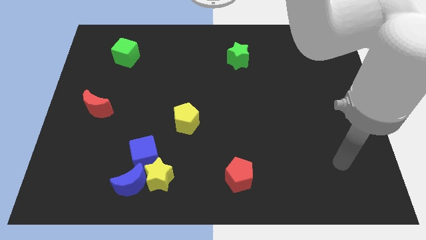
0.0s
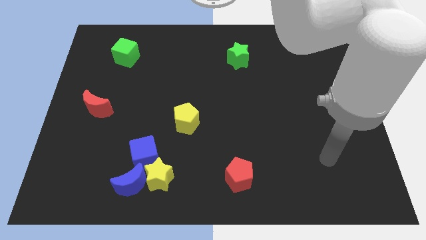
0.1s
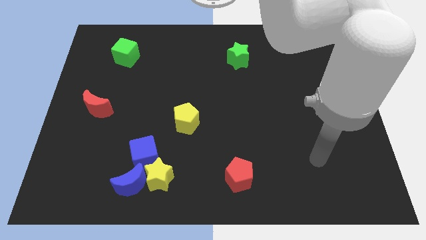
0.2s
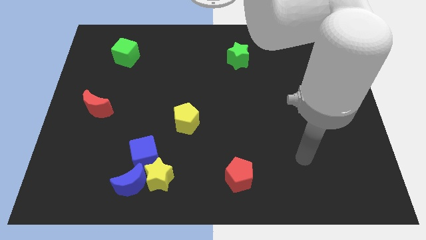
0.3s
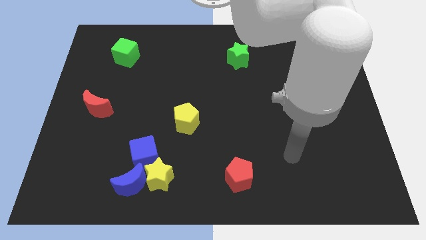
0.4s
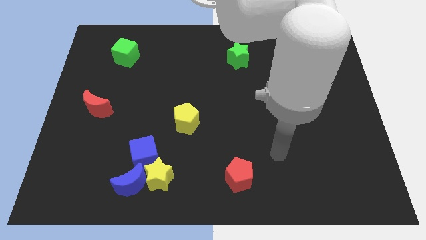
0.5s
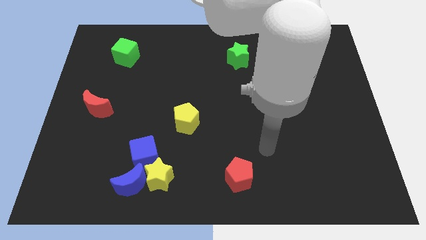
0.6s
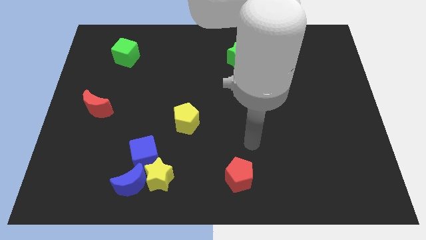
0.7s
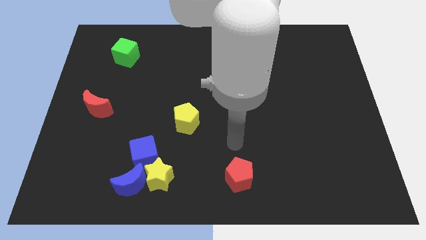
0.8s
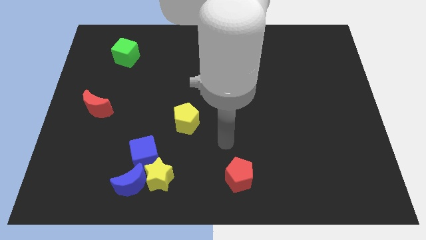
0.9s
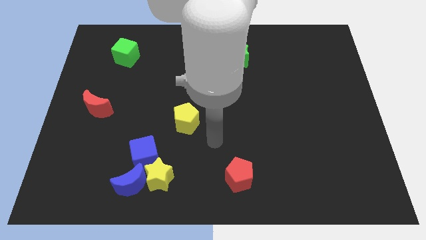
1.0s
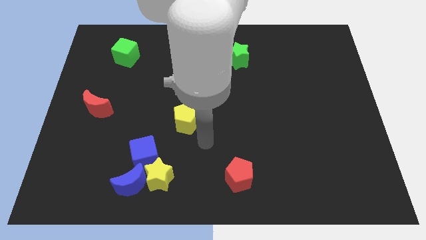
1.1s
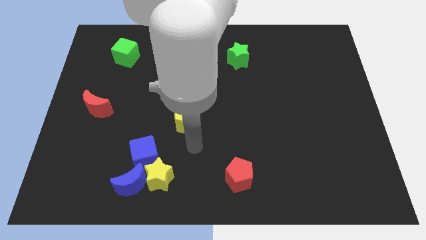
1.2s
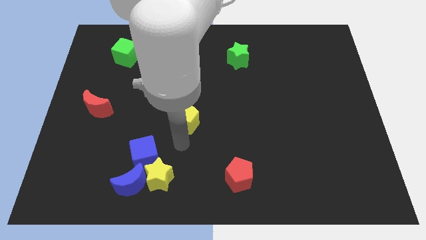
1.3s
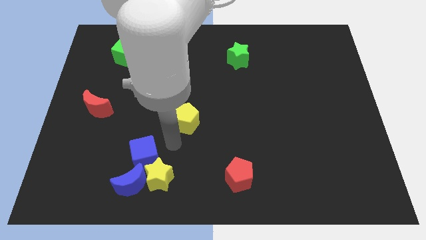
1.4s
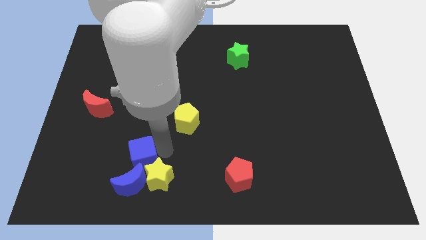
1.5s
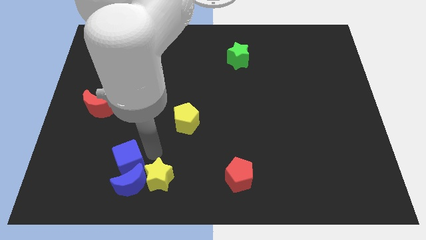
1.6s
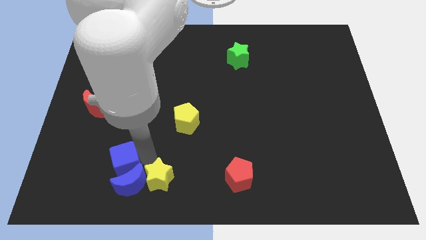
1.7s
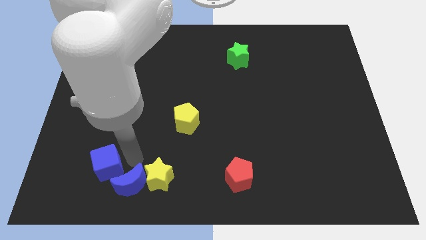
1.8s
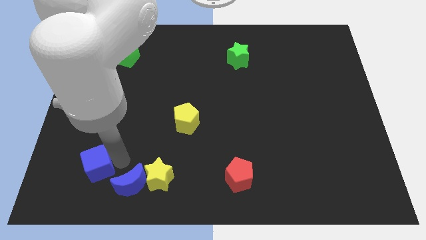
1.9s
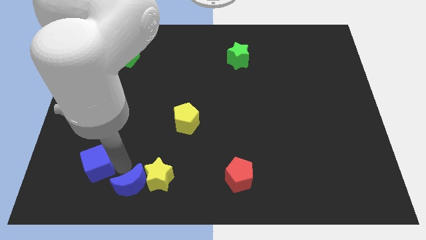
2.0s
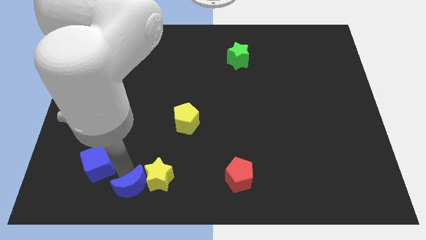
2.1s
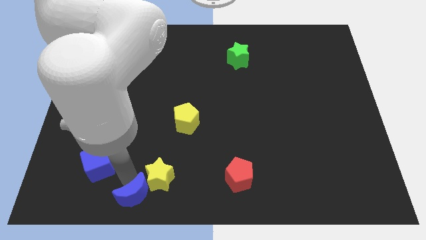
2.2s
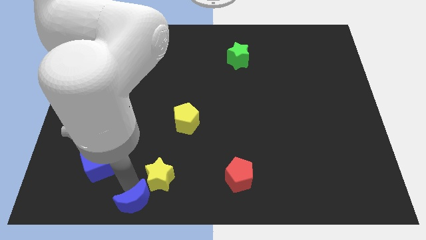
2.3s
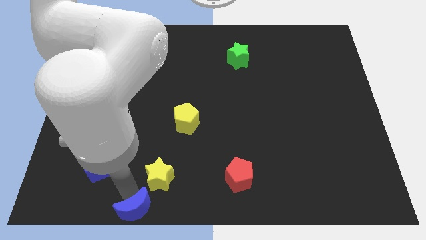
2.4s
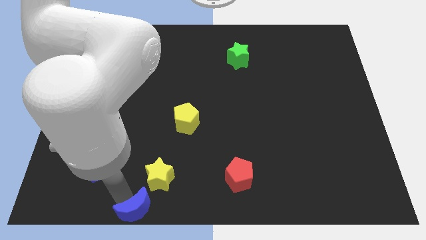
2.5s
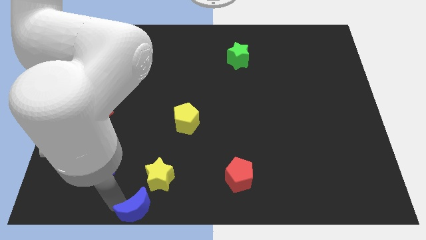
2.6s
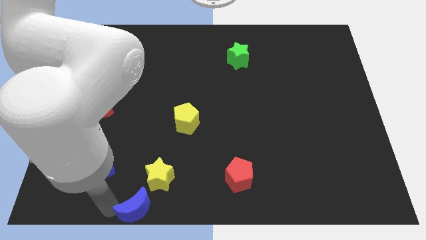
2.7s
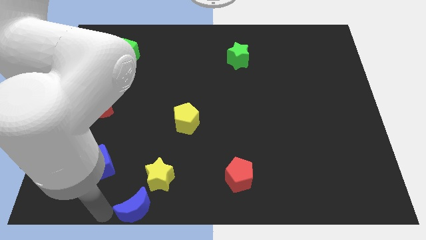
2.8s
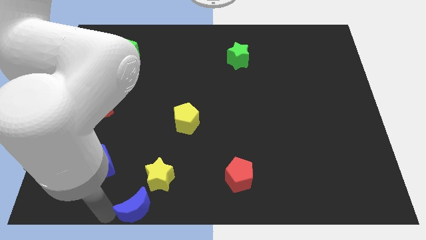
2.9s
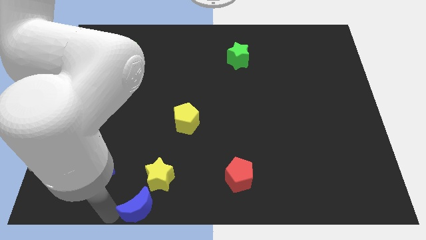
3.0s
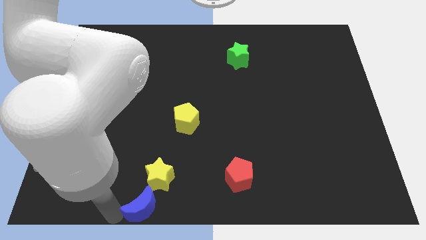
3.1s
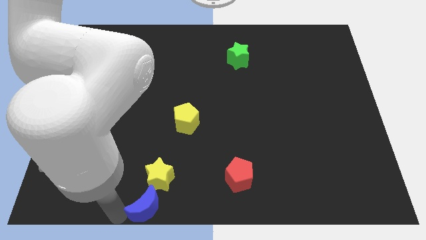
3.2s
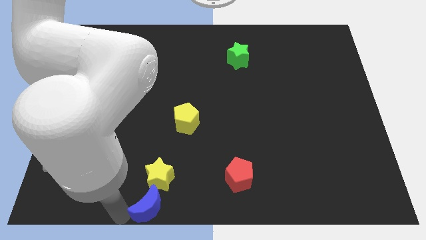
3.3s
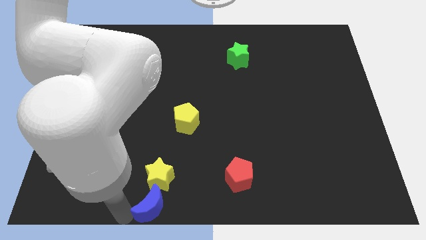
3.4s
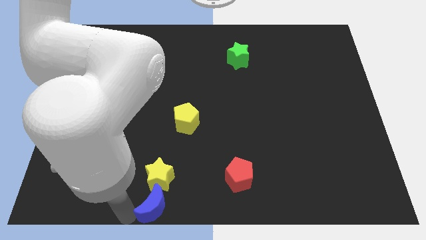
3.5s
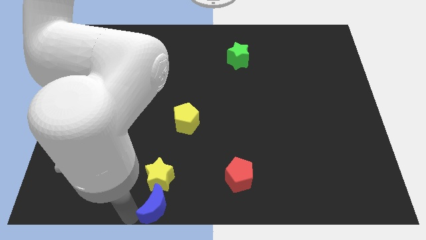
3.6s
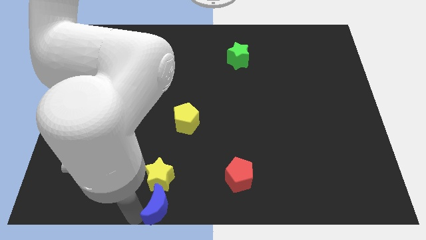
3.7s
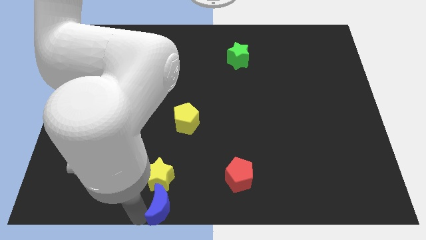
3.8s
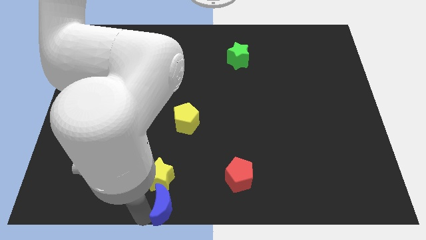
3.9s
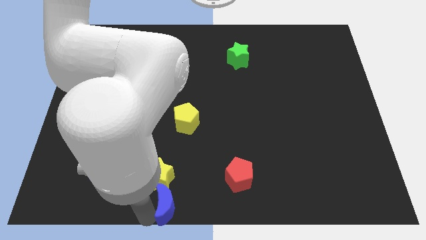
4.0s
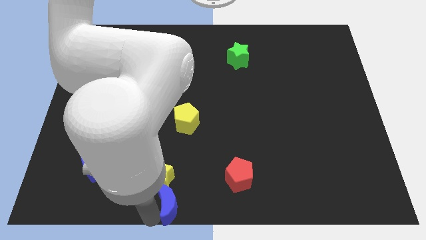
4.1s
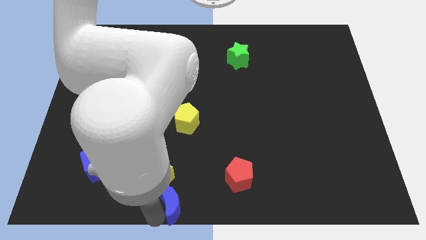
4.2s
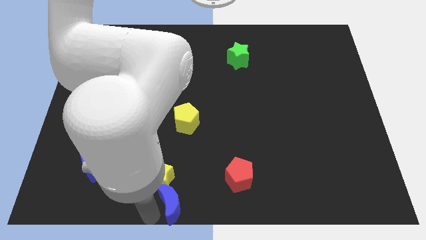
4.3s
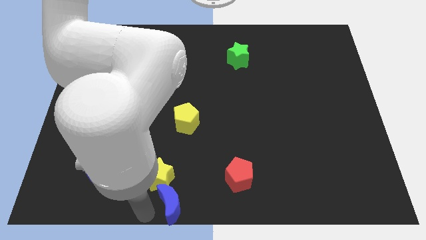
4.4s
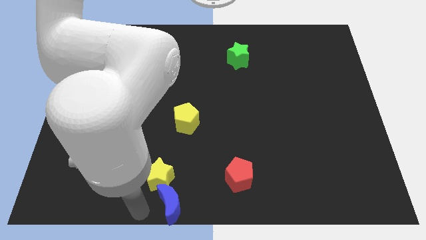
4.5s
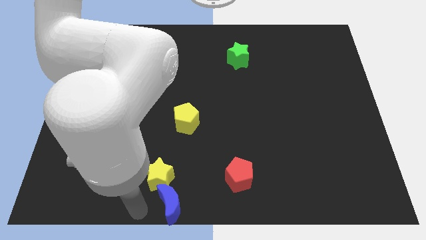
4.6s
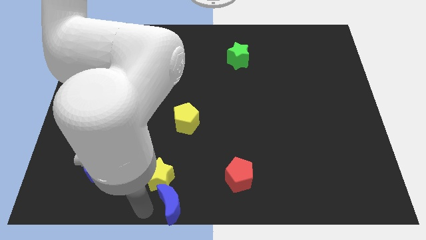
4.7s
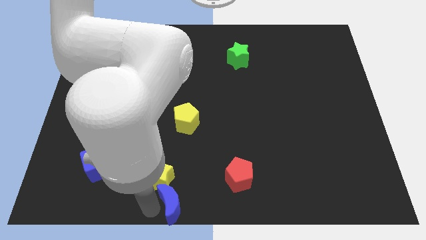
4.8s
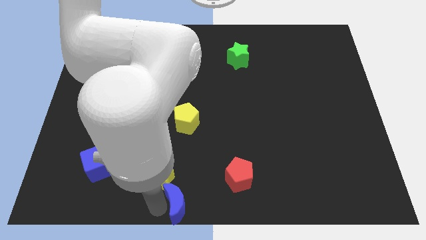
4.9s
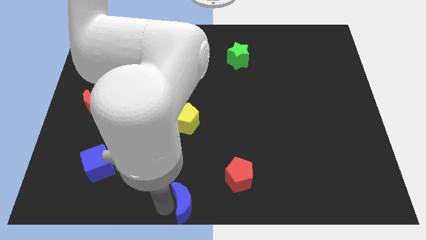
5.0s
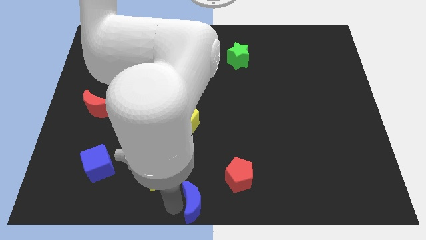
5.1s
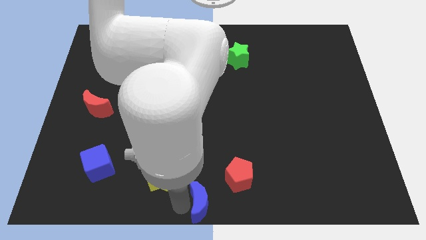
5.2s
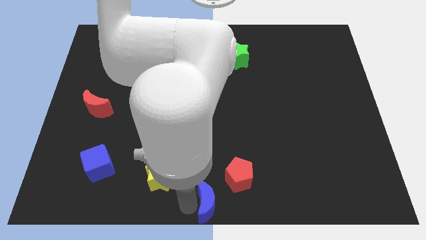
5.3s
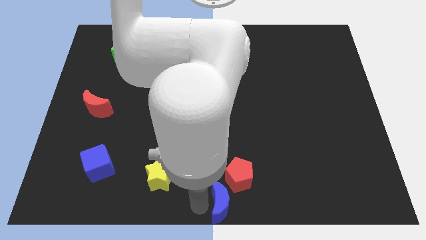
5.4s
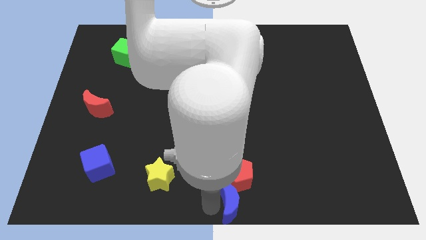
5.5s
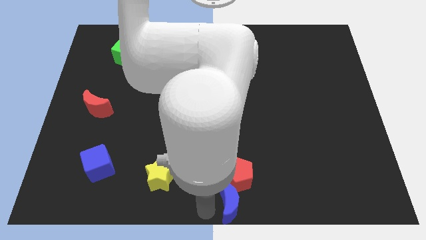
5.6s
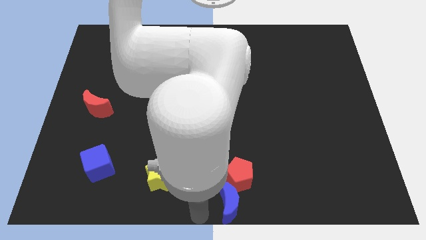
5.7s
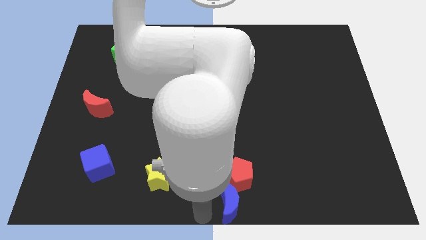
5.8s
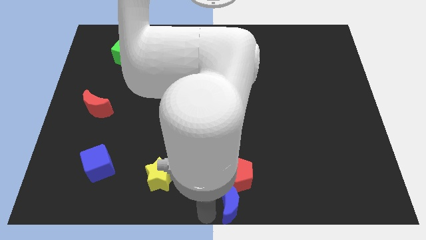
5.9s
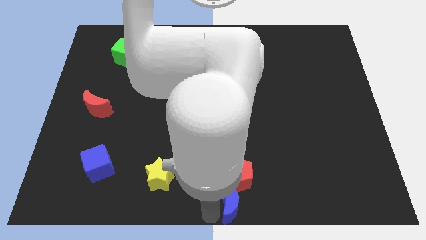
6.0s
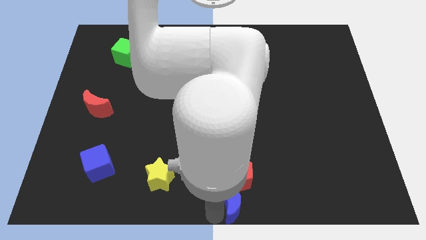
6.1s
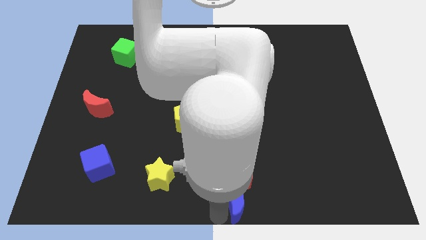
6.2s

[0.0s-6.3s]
slide the blue moon to the right

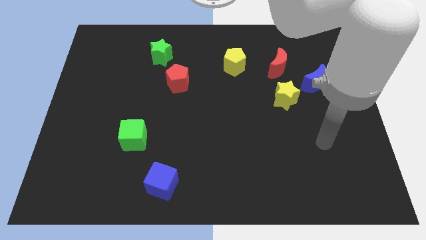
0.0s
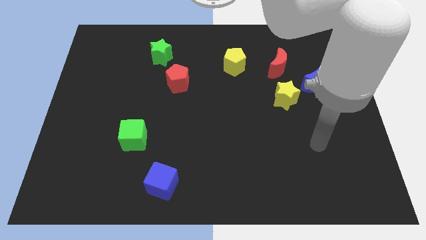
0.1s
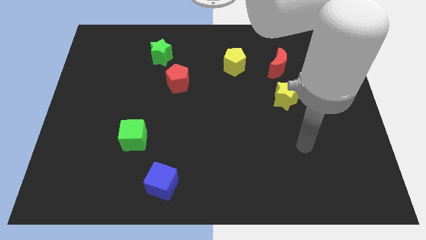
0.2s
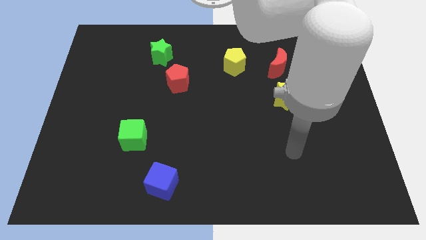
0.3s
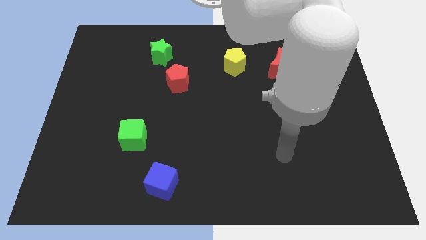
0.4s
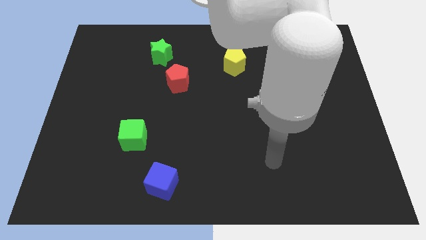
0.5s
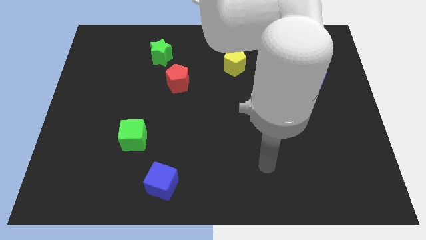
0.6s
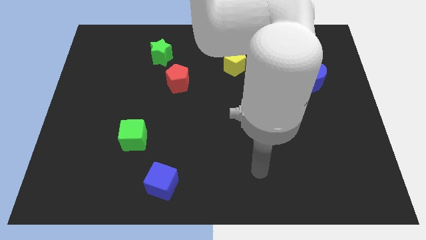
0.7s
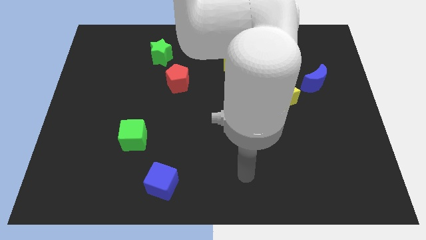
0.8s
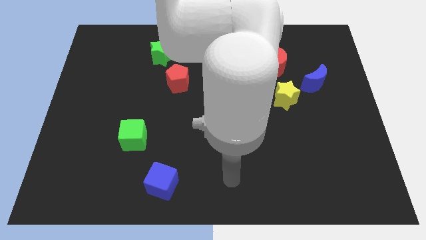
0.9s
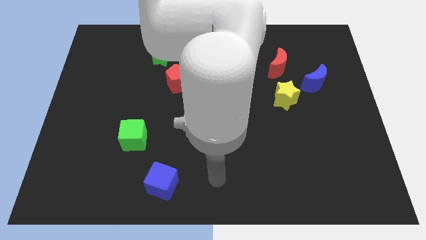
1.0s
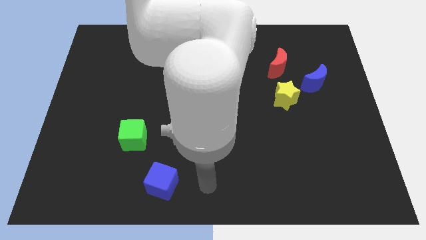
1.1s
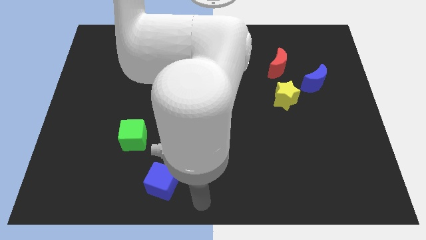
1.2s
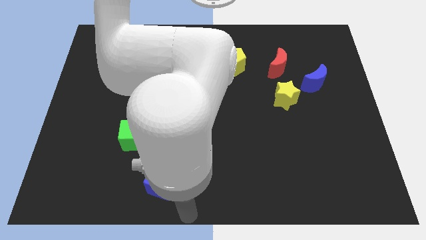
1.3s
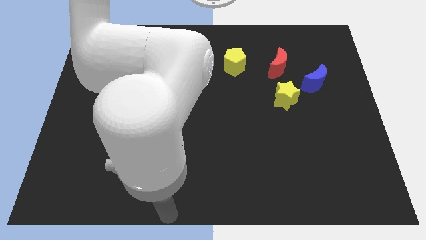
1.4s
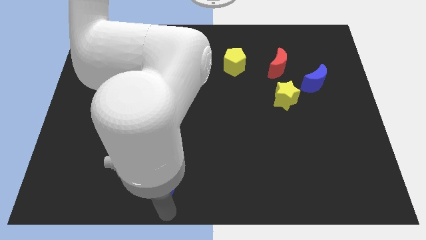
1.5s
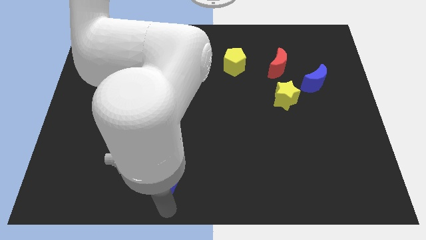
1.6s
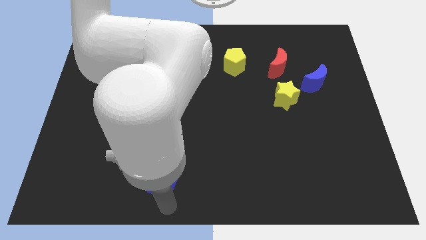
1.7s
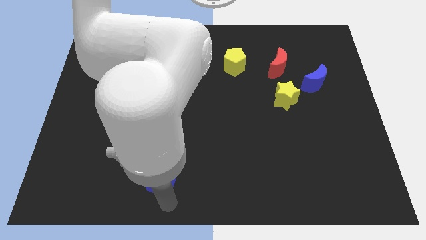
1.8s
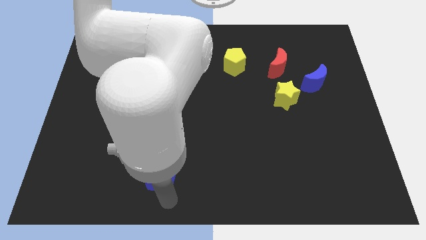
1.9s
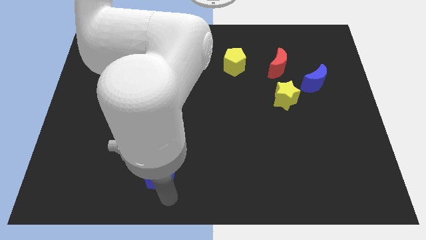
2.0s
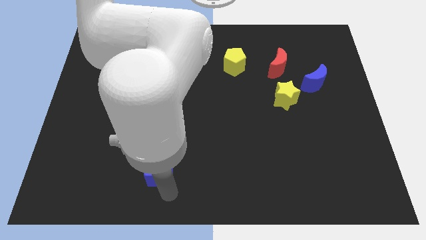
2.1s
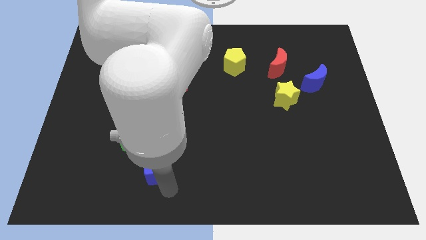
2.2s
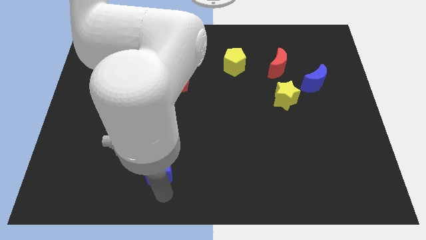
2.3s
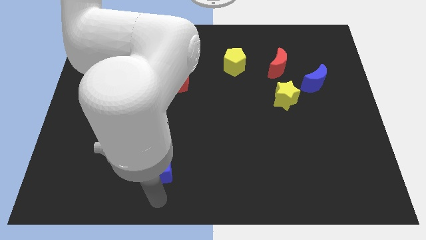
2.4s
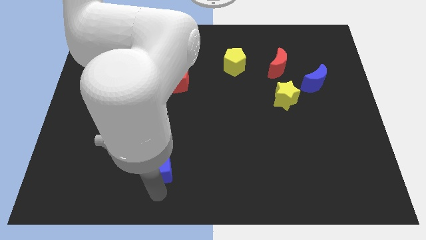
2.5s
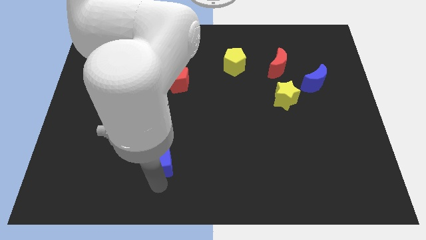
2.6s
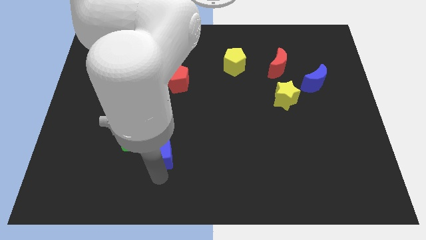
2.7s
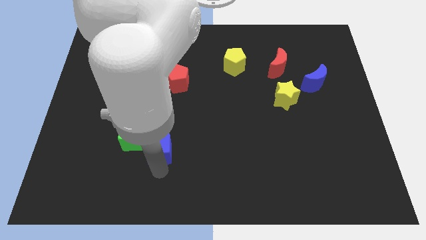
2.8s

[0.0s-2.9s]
push the blue cube upwards a little bit
